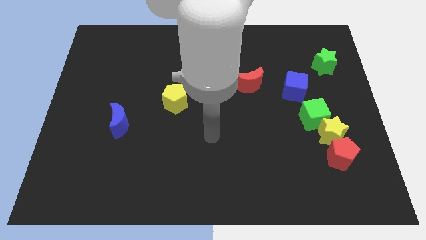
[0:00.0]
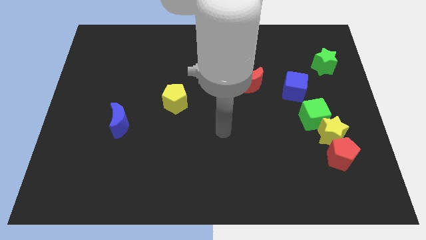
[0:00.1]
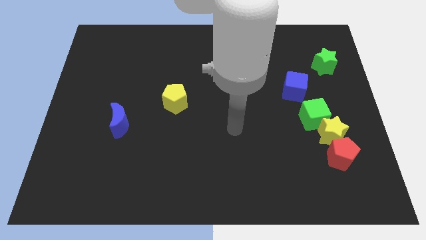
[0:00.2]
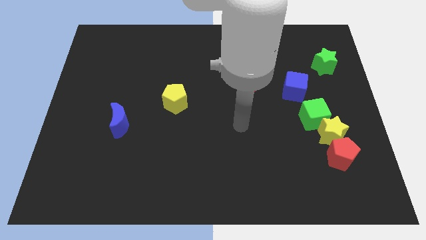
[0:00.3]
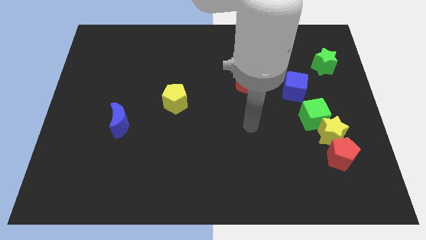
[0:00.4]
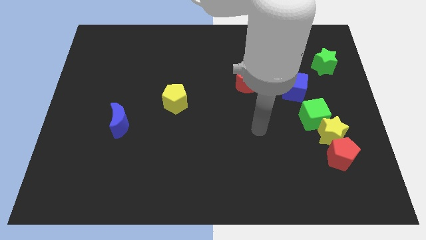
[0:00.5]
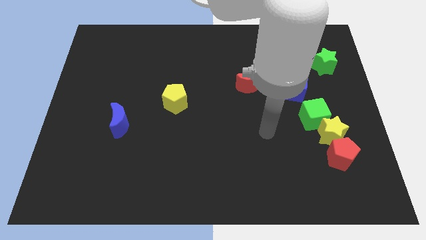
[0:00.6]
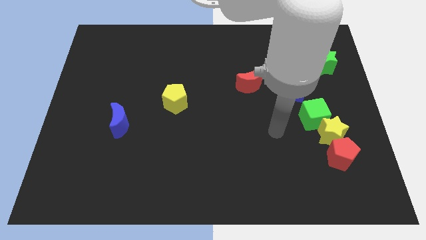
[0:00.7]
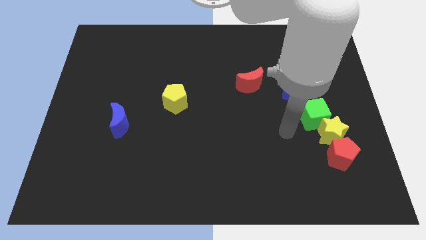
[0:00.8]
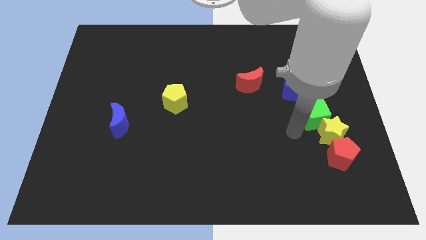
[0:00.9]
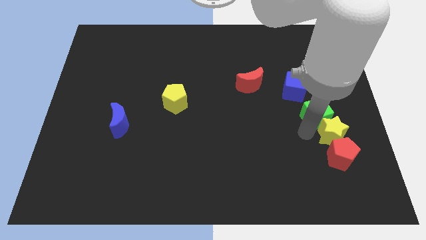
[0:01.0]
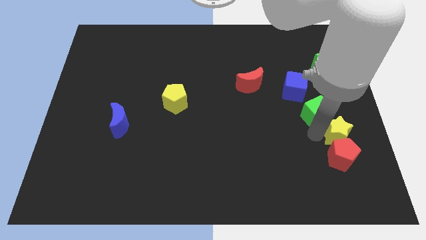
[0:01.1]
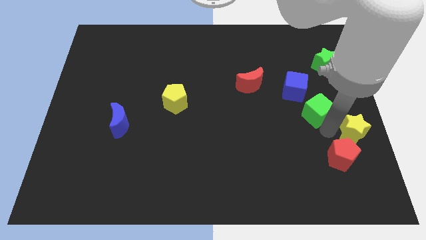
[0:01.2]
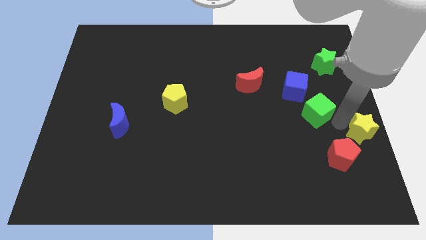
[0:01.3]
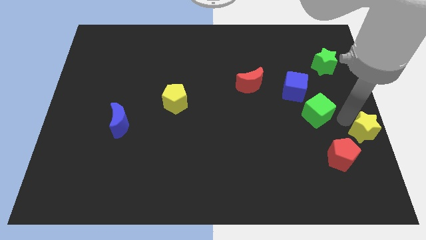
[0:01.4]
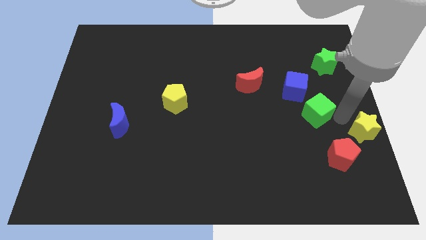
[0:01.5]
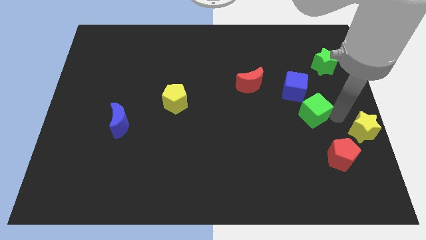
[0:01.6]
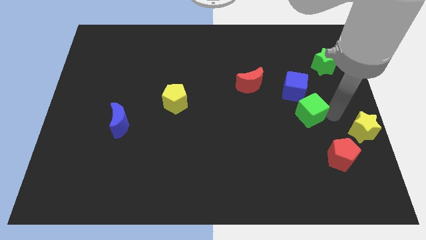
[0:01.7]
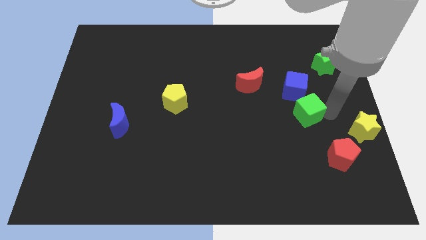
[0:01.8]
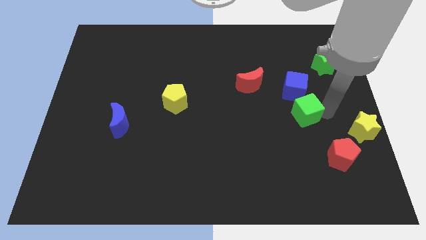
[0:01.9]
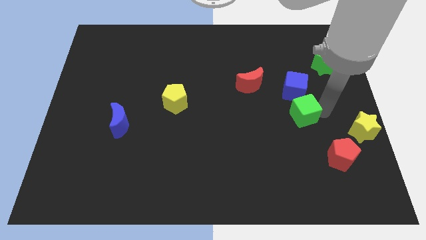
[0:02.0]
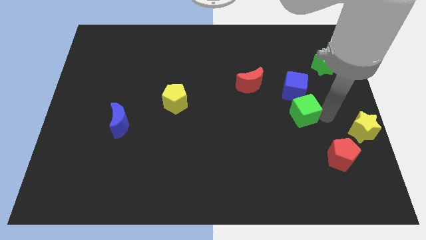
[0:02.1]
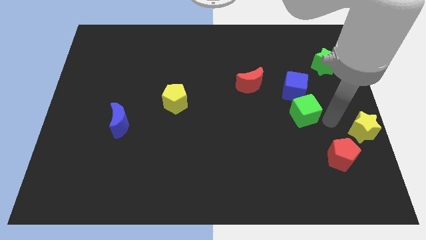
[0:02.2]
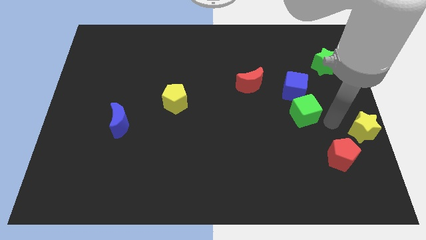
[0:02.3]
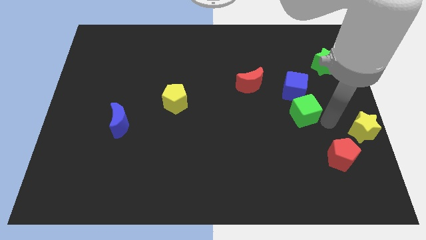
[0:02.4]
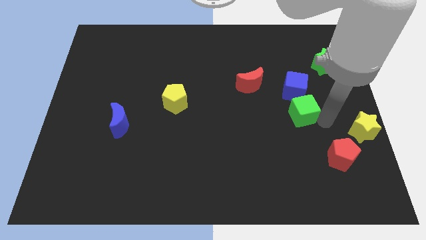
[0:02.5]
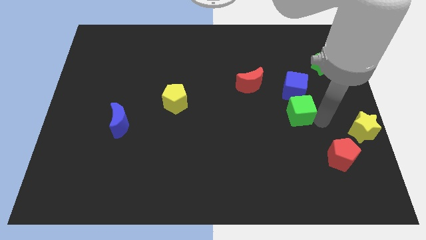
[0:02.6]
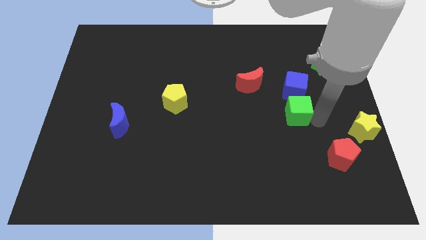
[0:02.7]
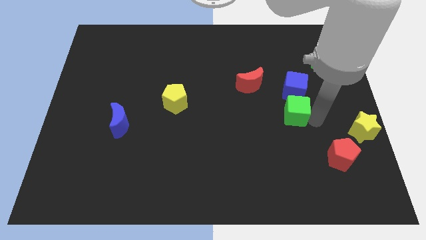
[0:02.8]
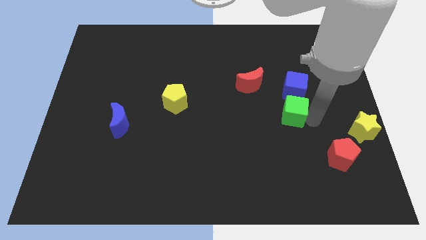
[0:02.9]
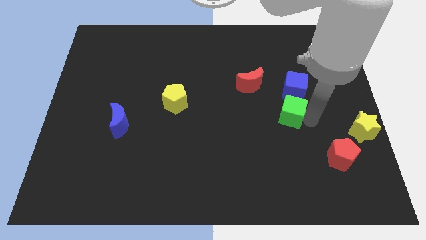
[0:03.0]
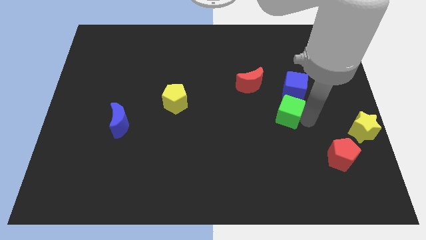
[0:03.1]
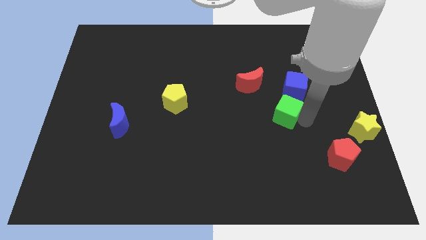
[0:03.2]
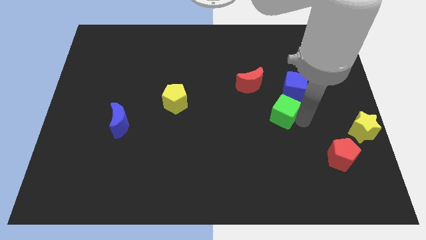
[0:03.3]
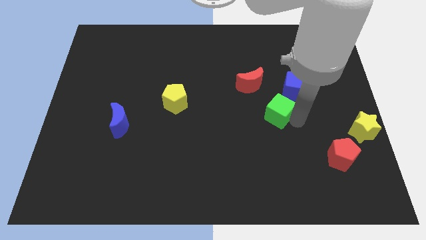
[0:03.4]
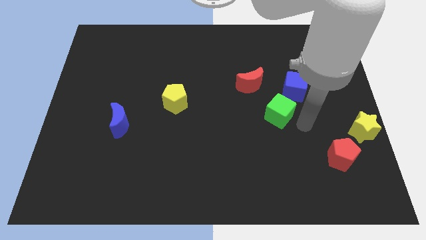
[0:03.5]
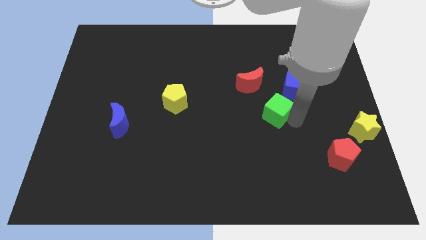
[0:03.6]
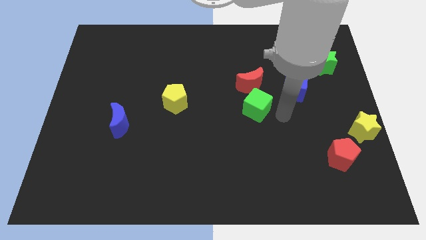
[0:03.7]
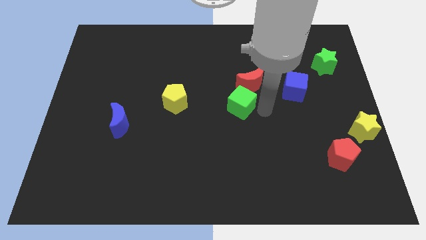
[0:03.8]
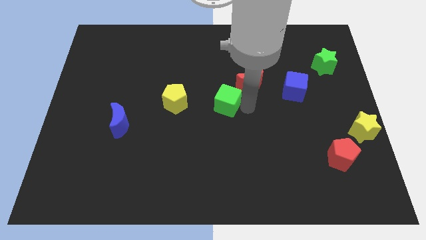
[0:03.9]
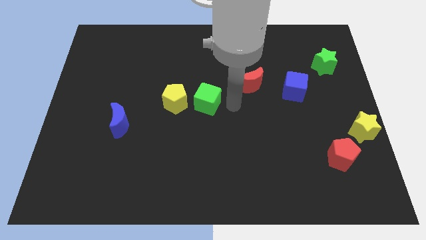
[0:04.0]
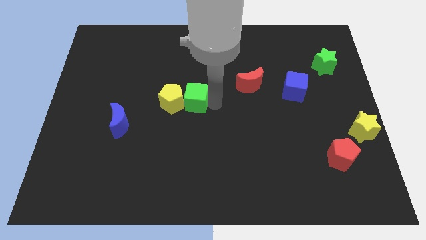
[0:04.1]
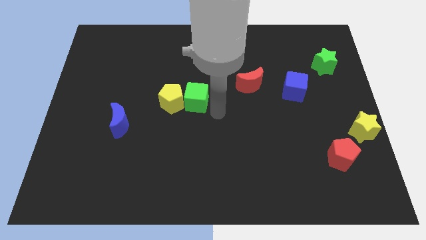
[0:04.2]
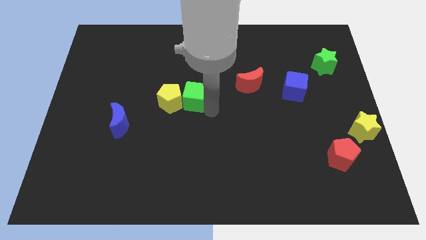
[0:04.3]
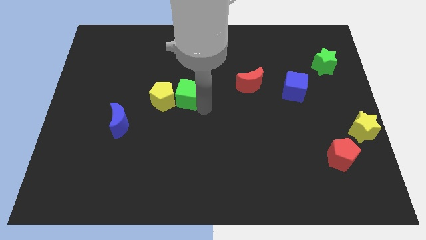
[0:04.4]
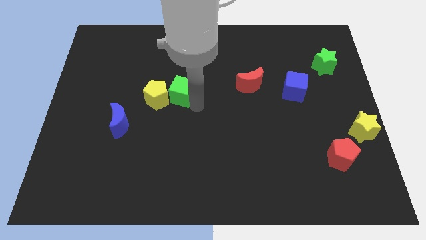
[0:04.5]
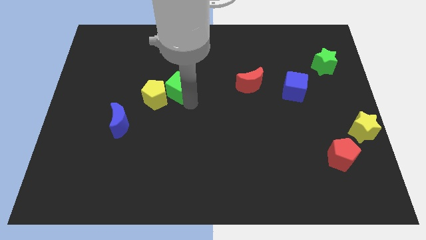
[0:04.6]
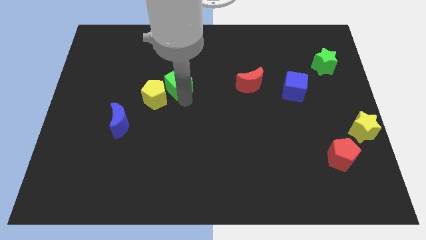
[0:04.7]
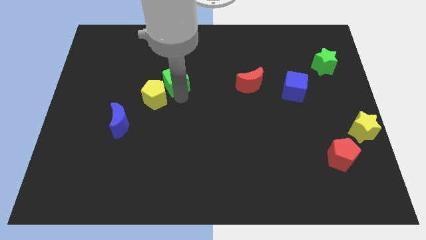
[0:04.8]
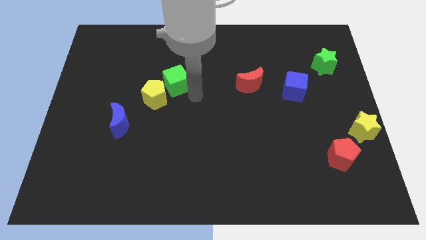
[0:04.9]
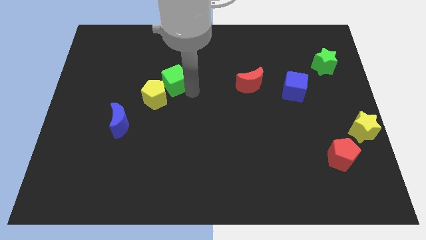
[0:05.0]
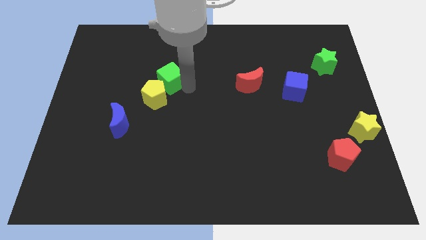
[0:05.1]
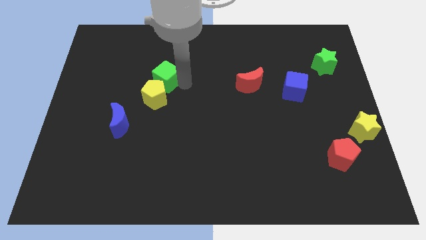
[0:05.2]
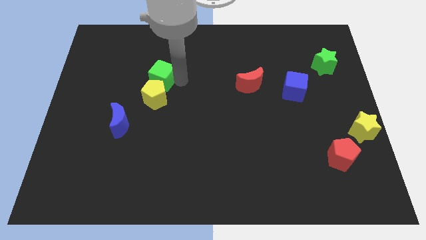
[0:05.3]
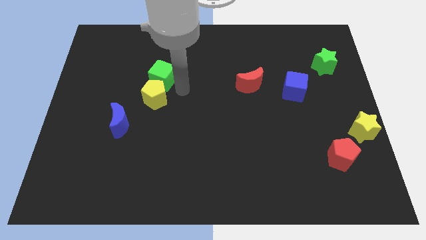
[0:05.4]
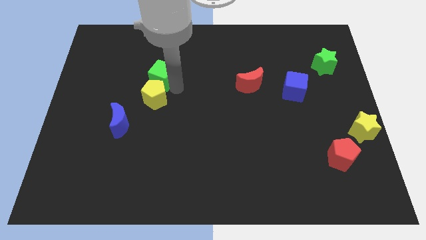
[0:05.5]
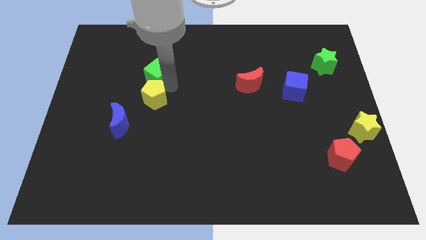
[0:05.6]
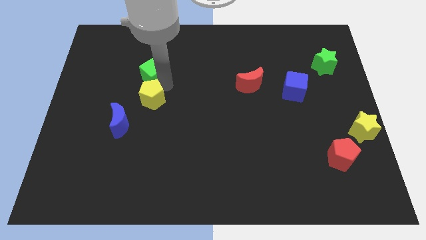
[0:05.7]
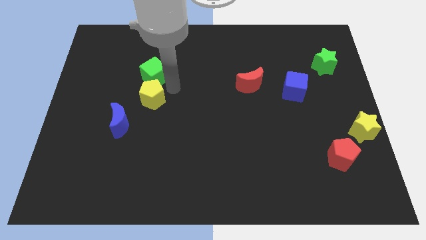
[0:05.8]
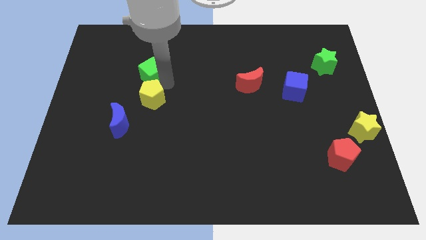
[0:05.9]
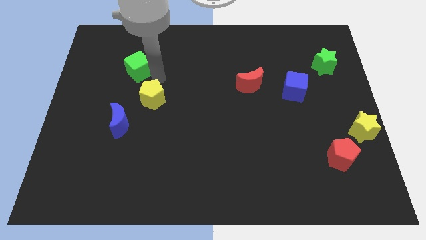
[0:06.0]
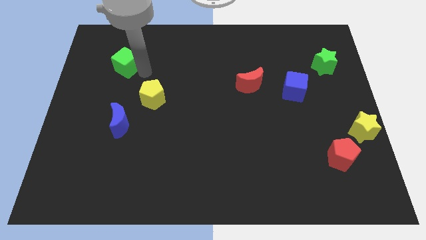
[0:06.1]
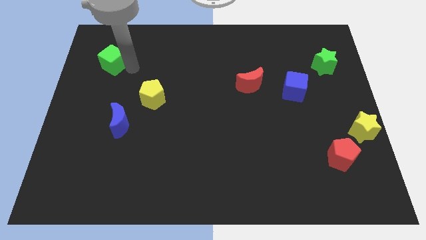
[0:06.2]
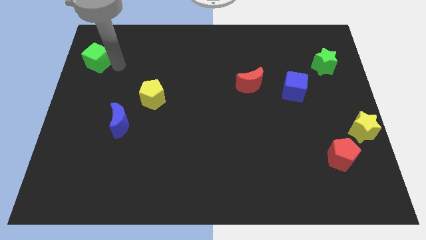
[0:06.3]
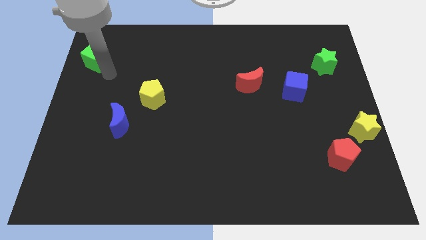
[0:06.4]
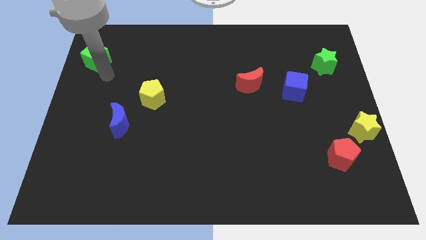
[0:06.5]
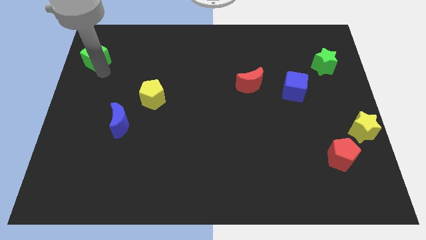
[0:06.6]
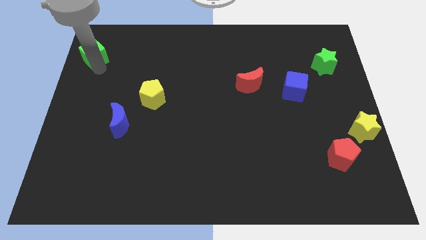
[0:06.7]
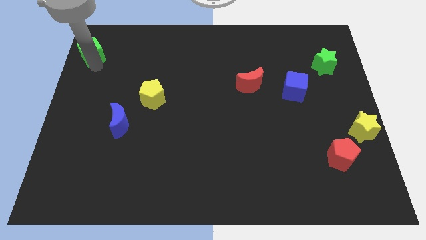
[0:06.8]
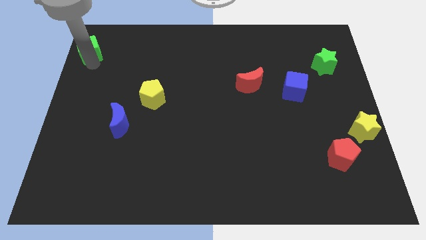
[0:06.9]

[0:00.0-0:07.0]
push the green cube to the upper left corner
